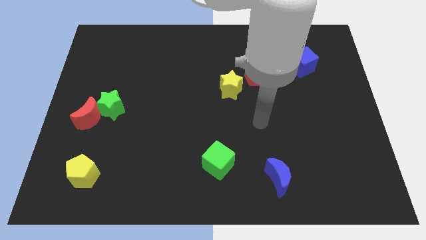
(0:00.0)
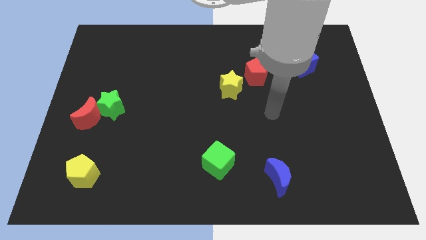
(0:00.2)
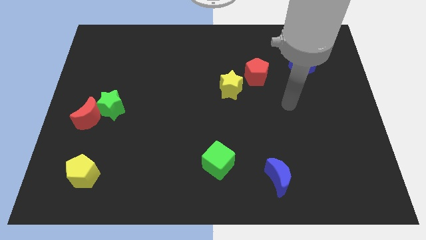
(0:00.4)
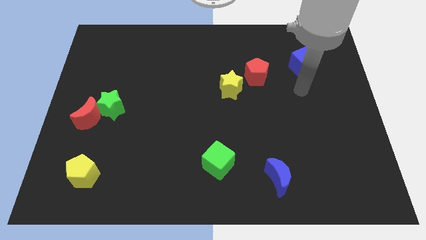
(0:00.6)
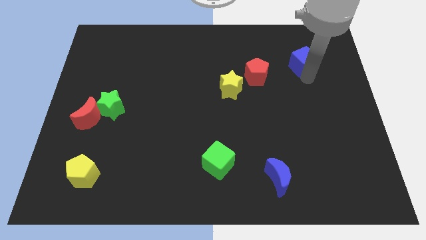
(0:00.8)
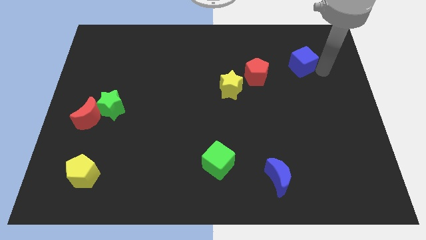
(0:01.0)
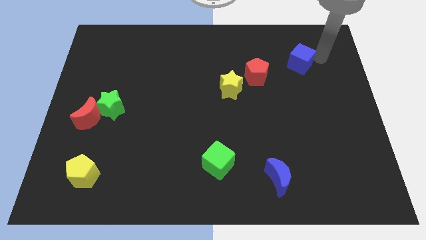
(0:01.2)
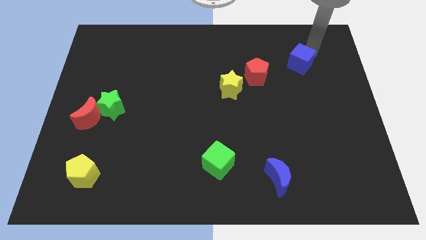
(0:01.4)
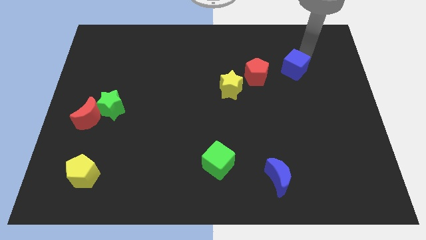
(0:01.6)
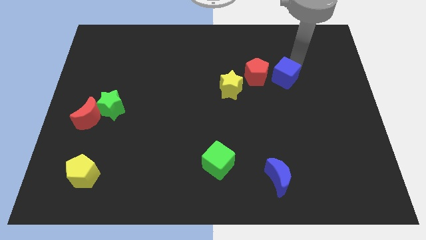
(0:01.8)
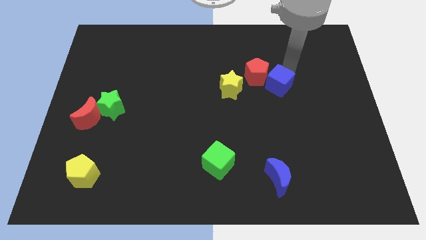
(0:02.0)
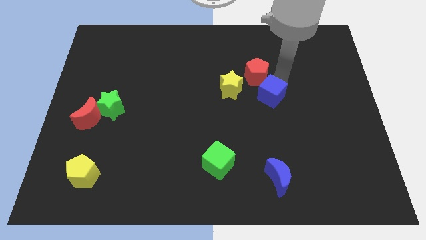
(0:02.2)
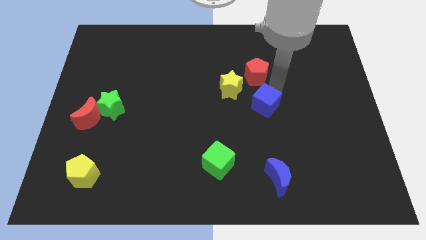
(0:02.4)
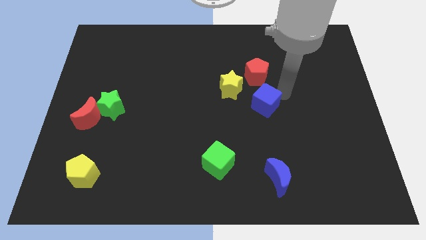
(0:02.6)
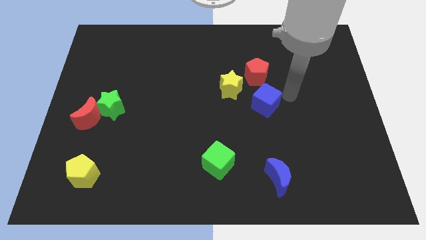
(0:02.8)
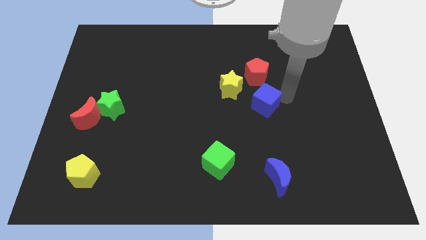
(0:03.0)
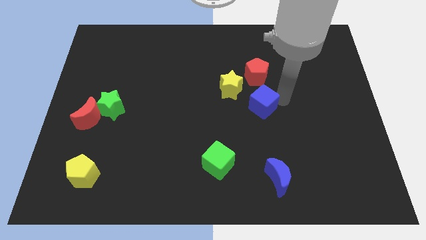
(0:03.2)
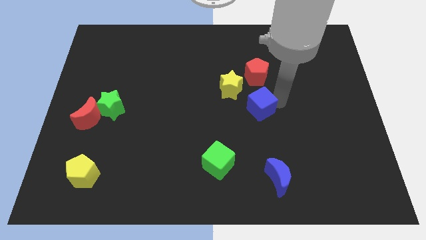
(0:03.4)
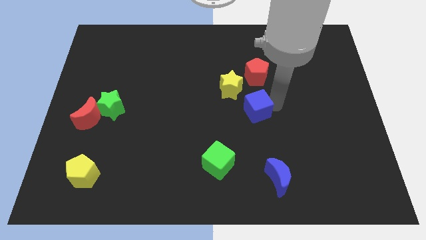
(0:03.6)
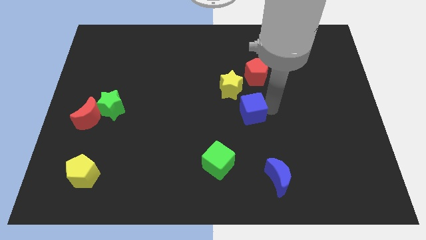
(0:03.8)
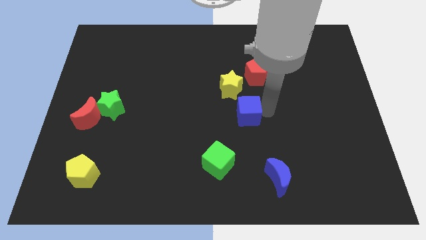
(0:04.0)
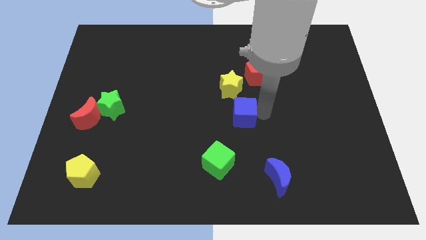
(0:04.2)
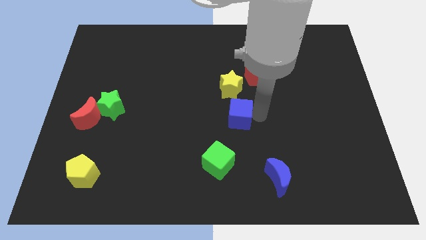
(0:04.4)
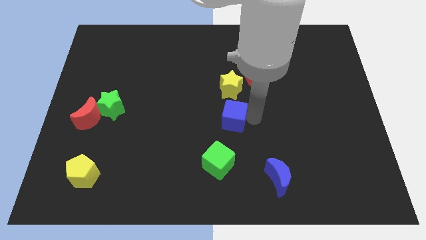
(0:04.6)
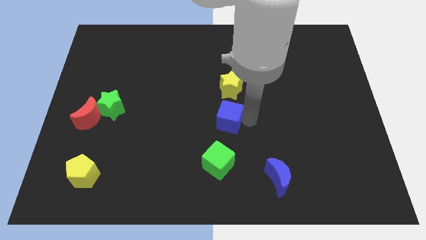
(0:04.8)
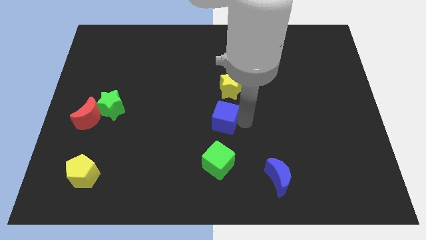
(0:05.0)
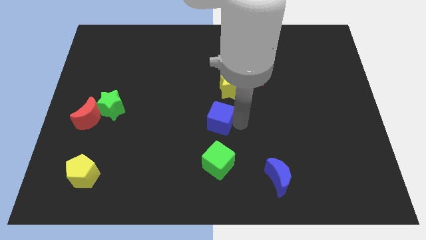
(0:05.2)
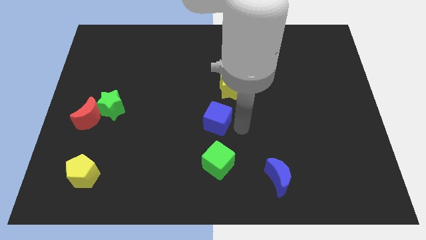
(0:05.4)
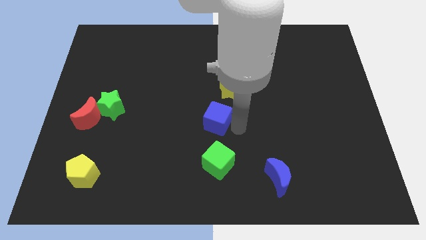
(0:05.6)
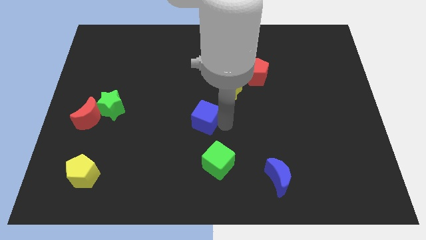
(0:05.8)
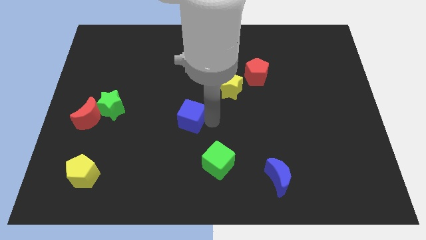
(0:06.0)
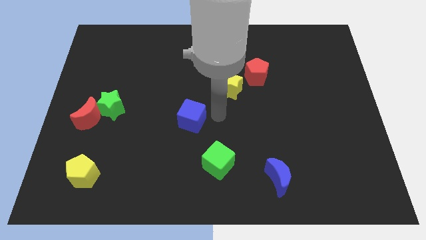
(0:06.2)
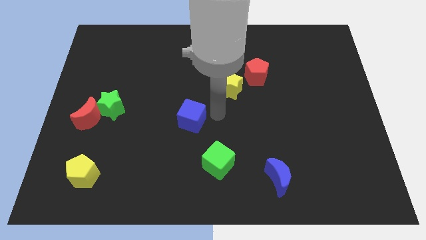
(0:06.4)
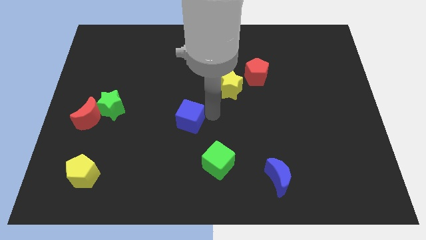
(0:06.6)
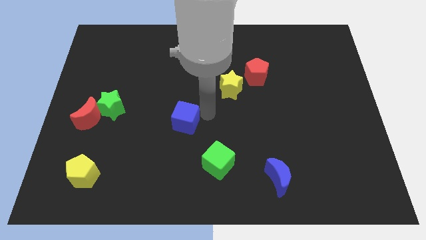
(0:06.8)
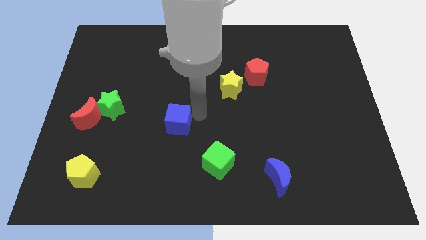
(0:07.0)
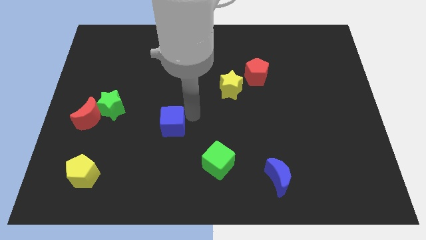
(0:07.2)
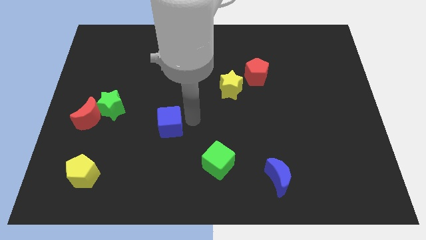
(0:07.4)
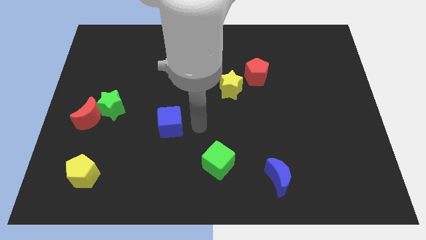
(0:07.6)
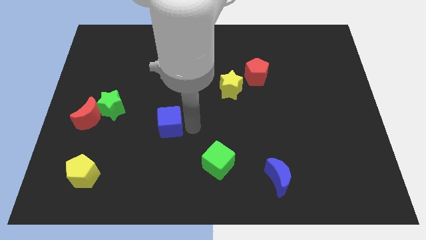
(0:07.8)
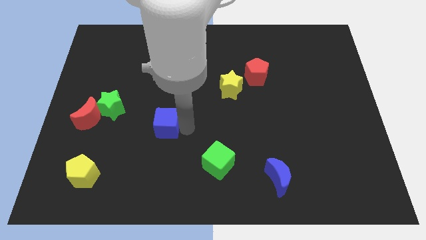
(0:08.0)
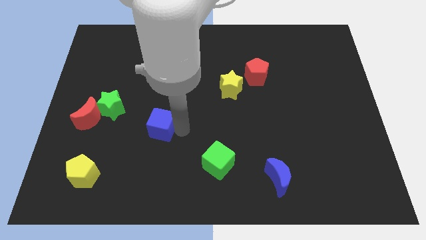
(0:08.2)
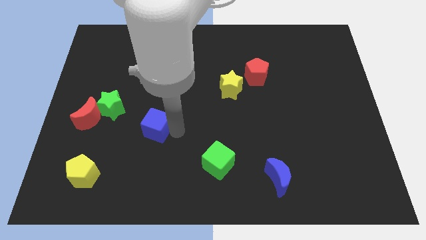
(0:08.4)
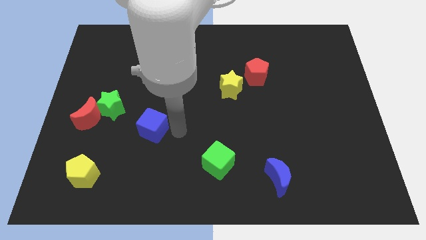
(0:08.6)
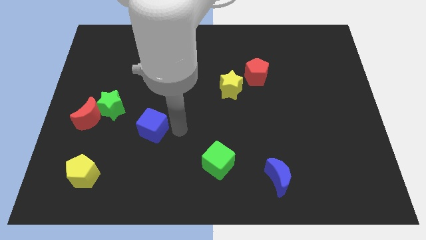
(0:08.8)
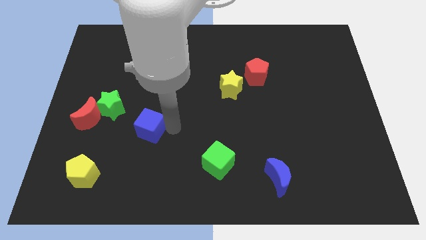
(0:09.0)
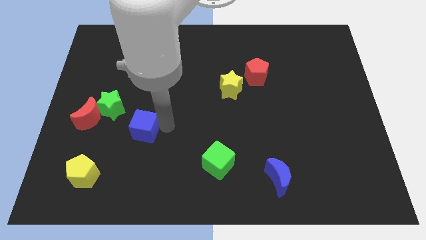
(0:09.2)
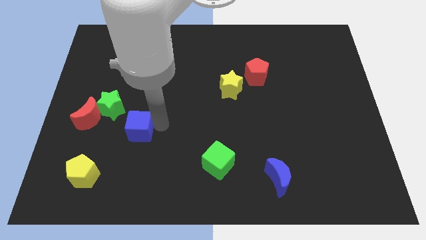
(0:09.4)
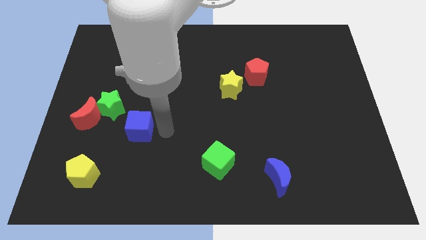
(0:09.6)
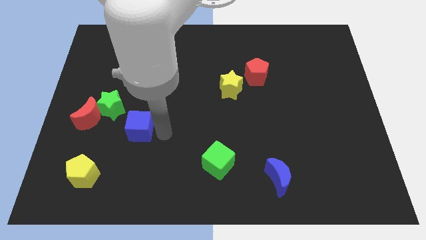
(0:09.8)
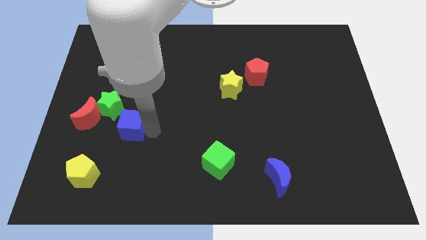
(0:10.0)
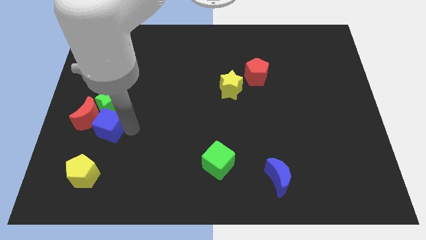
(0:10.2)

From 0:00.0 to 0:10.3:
put the blue cube next to the red moon

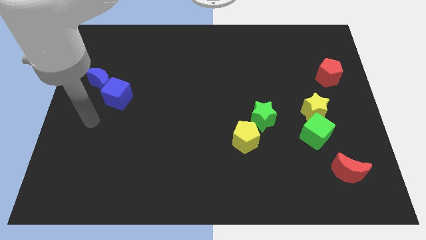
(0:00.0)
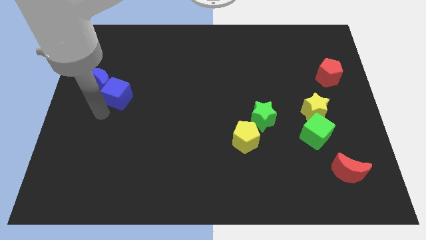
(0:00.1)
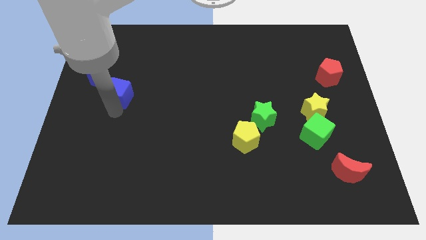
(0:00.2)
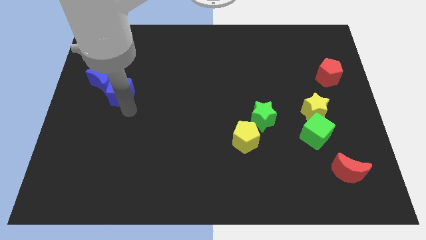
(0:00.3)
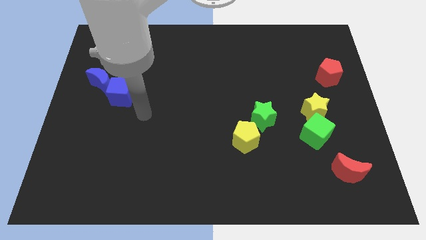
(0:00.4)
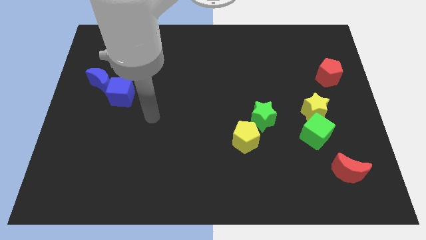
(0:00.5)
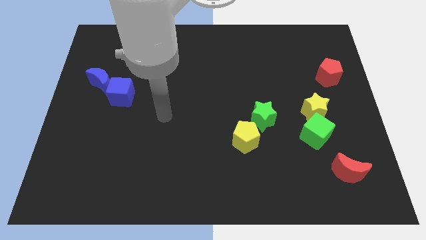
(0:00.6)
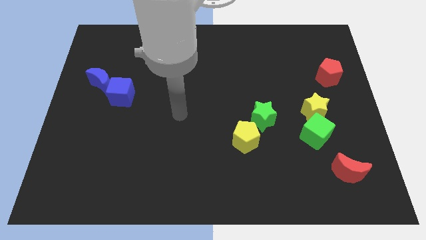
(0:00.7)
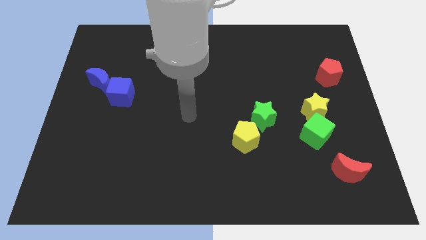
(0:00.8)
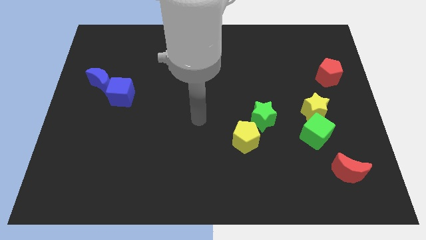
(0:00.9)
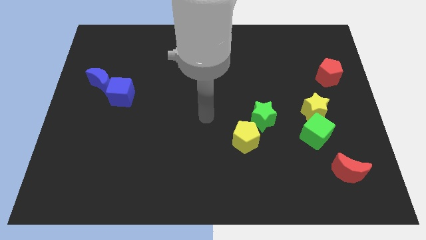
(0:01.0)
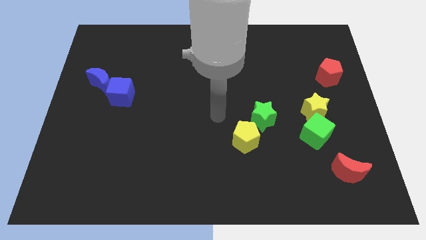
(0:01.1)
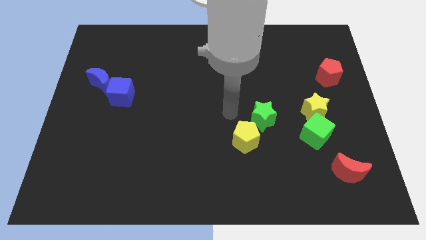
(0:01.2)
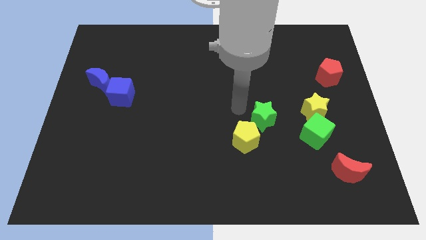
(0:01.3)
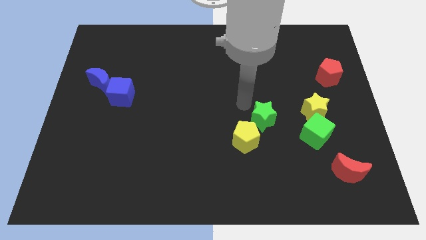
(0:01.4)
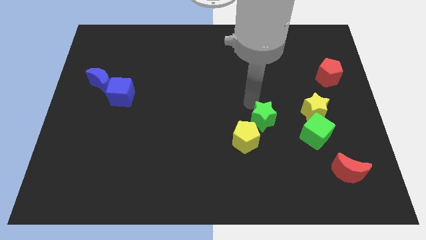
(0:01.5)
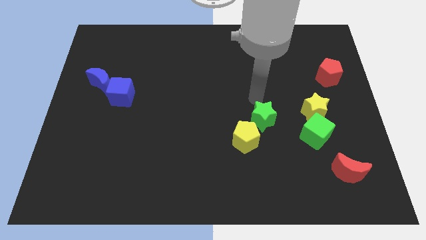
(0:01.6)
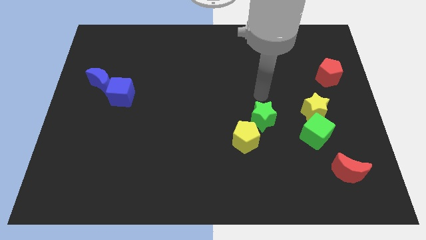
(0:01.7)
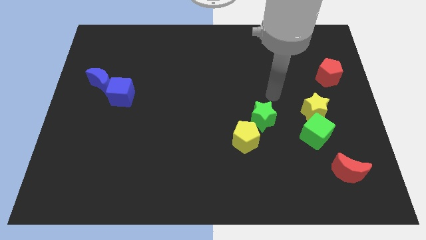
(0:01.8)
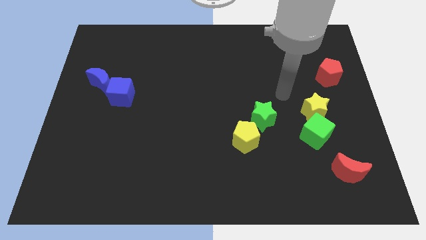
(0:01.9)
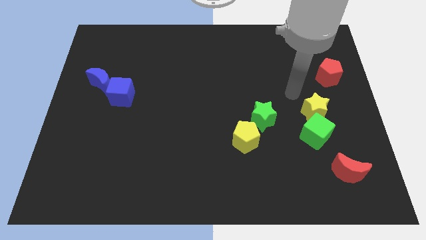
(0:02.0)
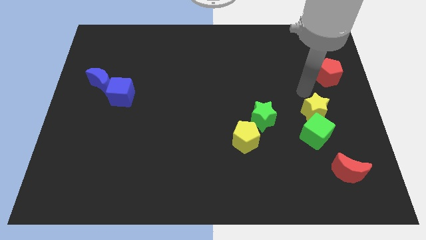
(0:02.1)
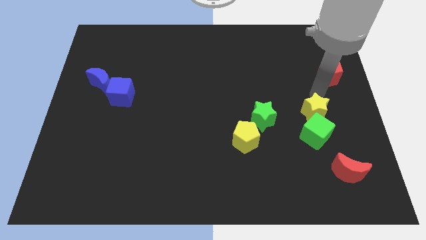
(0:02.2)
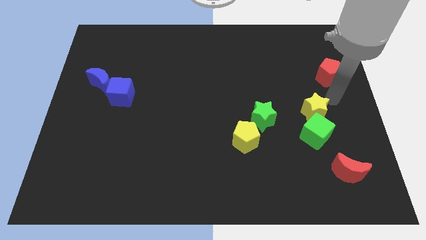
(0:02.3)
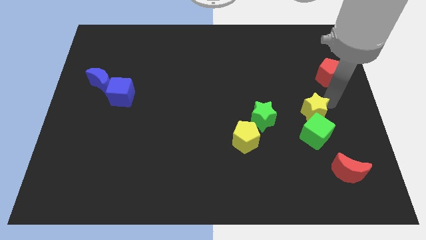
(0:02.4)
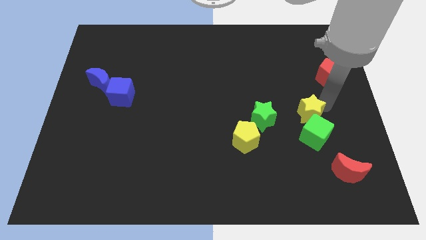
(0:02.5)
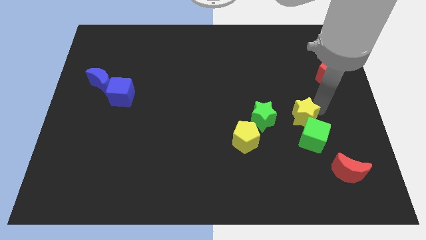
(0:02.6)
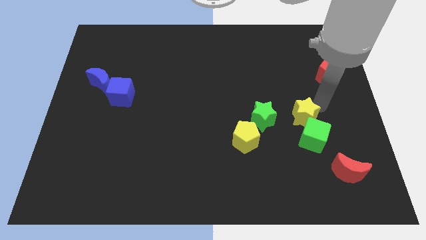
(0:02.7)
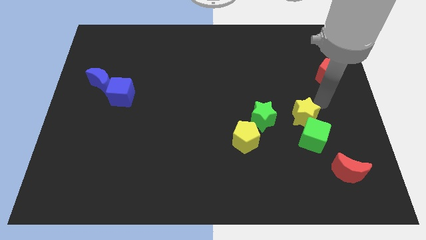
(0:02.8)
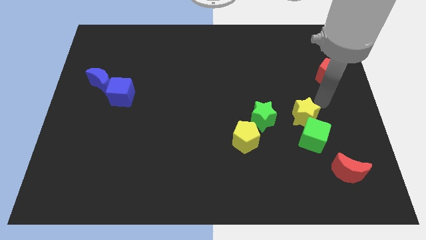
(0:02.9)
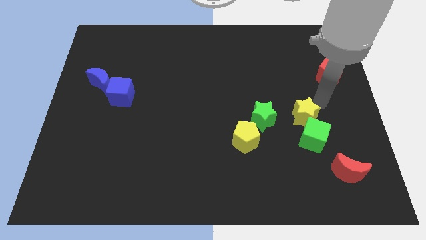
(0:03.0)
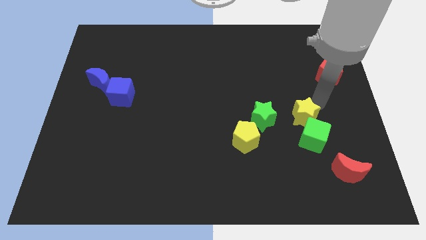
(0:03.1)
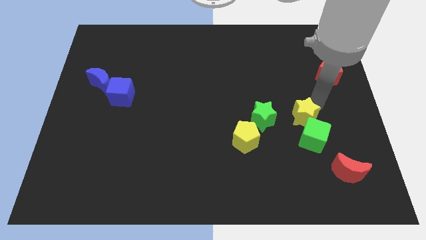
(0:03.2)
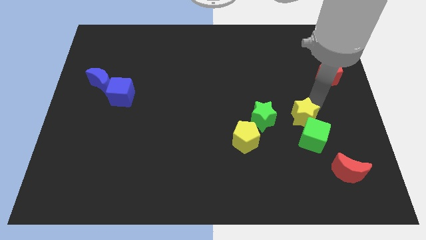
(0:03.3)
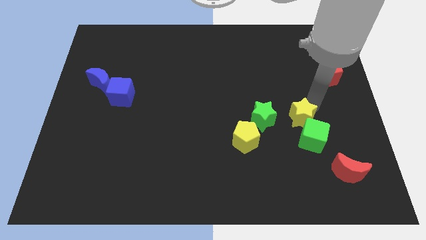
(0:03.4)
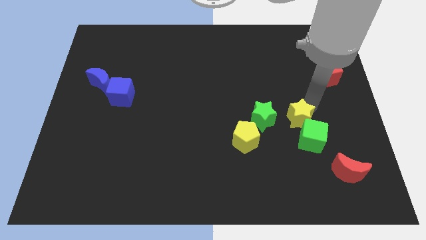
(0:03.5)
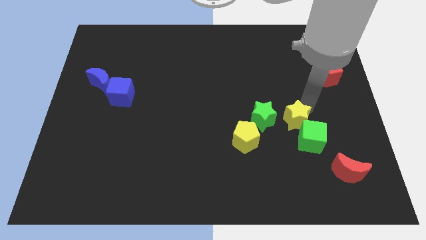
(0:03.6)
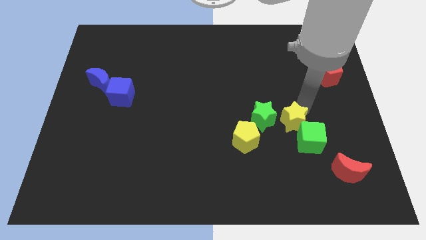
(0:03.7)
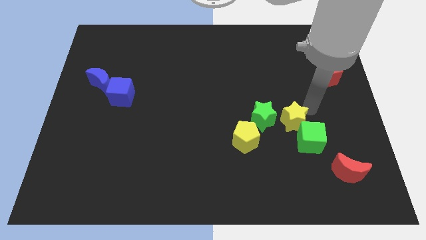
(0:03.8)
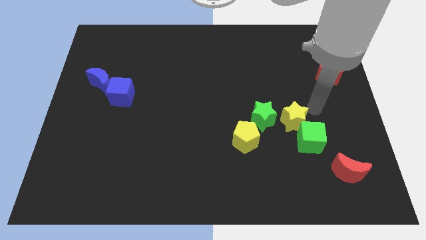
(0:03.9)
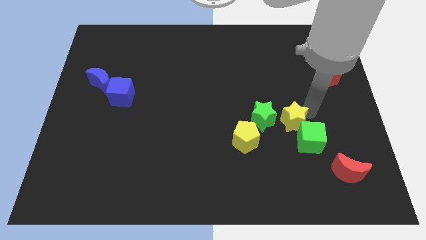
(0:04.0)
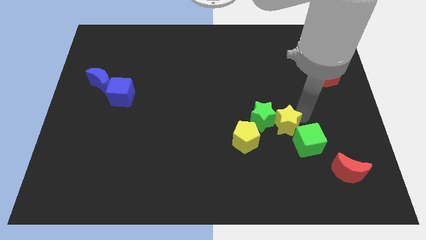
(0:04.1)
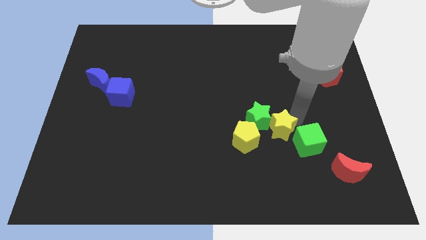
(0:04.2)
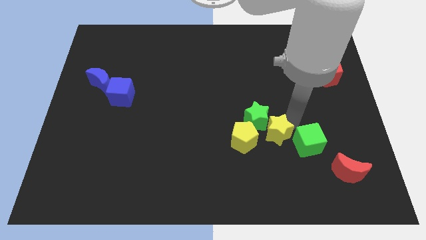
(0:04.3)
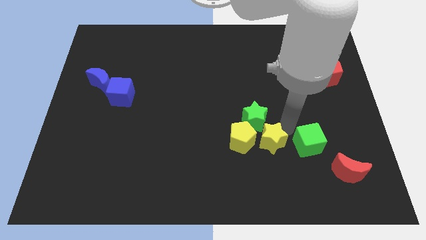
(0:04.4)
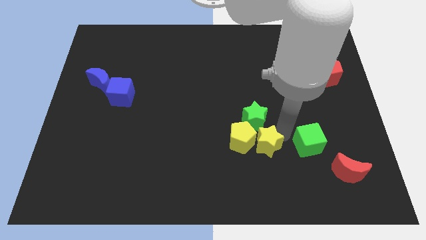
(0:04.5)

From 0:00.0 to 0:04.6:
push the yellow star to the yellow pentagon
